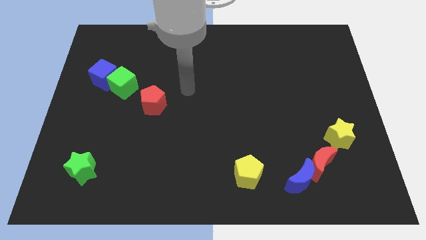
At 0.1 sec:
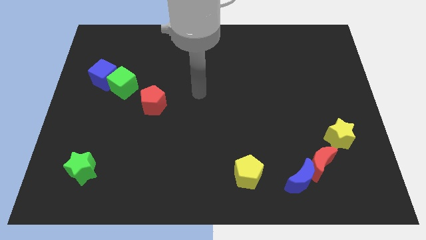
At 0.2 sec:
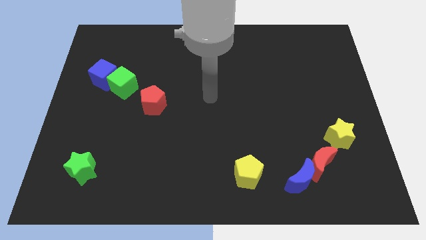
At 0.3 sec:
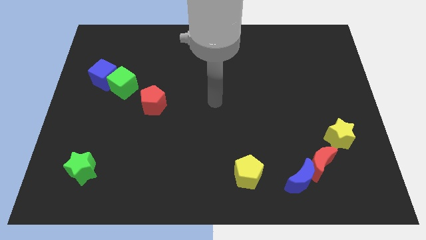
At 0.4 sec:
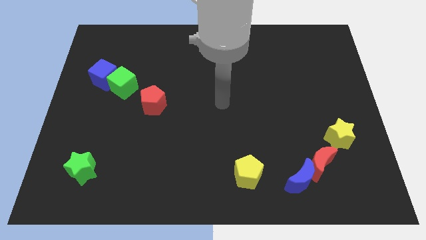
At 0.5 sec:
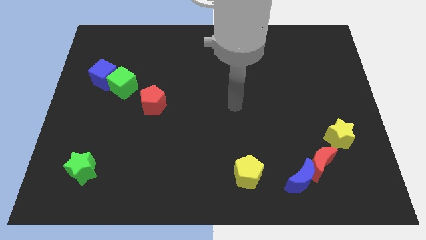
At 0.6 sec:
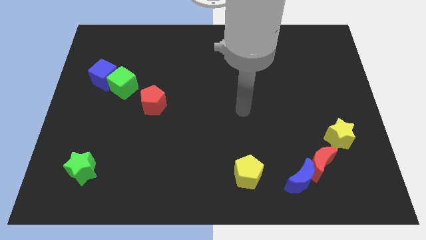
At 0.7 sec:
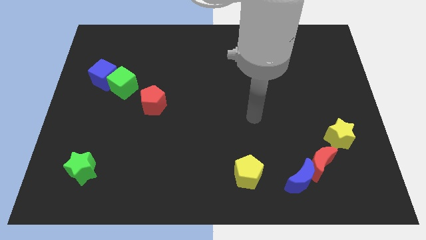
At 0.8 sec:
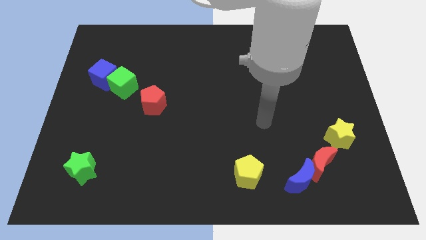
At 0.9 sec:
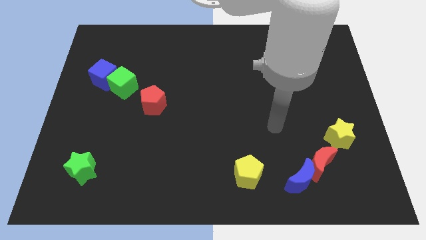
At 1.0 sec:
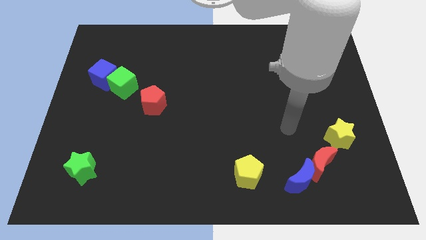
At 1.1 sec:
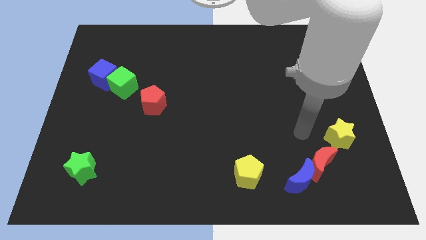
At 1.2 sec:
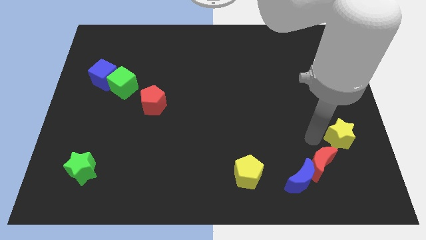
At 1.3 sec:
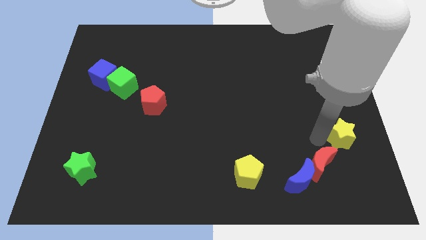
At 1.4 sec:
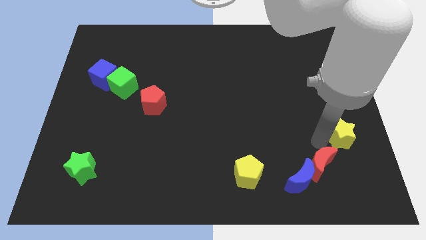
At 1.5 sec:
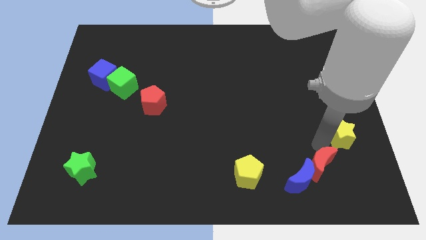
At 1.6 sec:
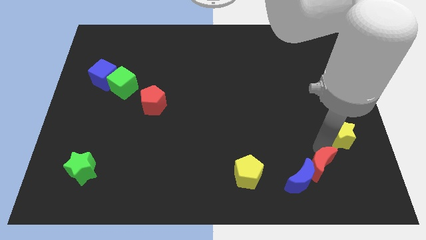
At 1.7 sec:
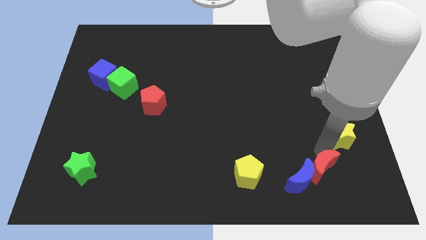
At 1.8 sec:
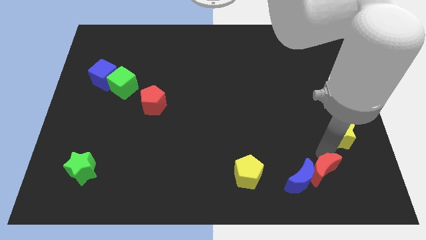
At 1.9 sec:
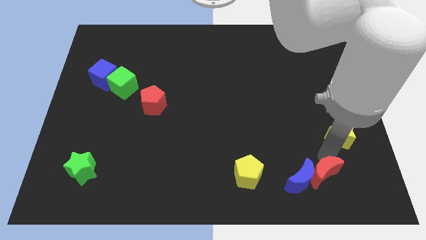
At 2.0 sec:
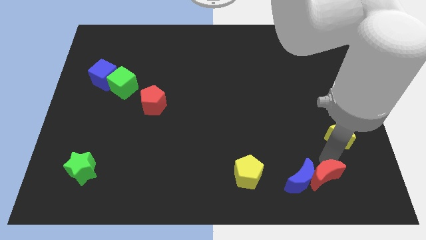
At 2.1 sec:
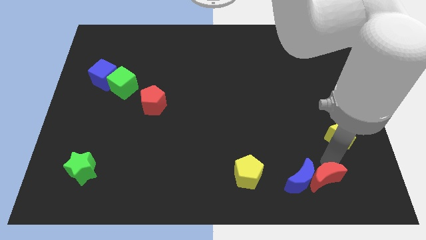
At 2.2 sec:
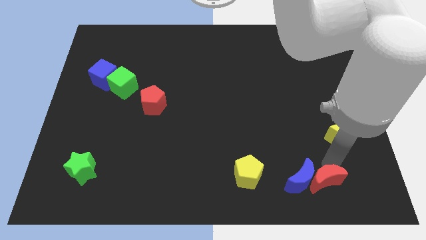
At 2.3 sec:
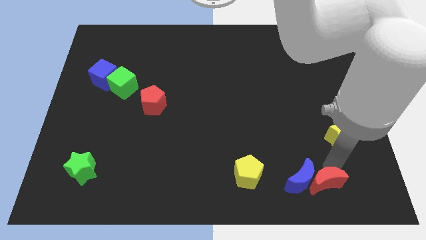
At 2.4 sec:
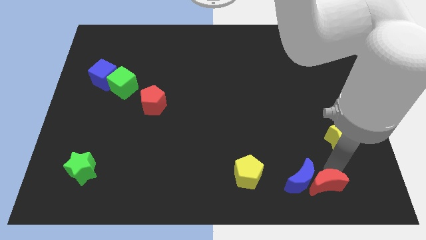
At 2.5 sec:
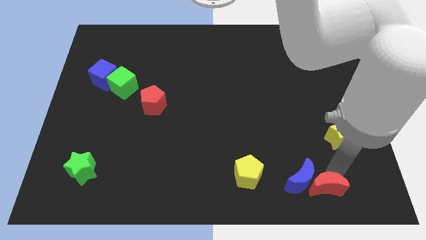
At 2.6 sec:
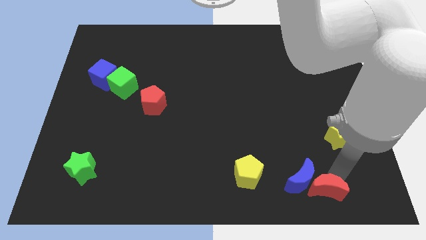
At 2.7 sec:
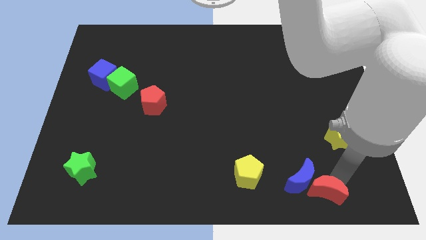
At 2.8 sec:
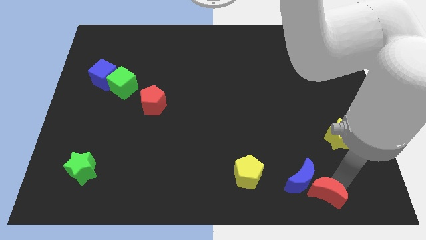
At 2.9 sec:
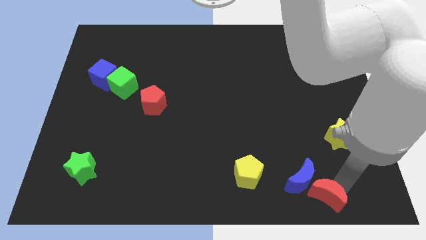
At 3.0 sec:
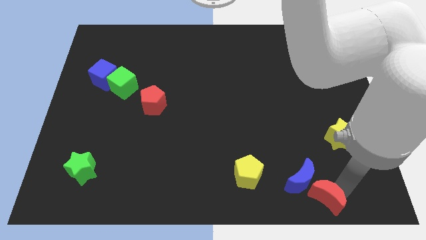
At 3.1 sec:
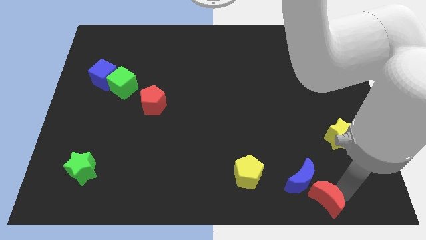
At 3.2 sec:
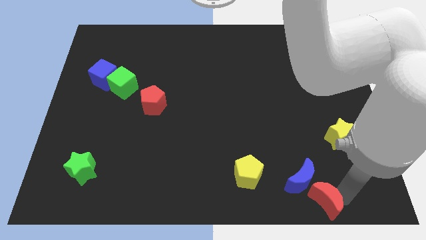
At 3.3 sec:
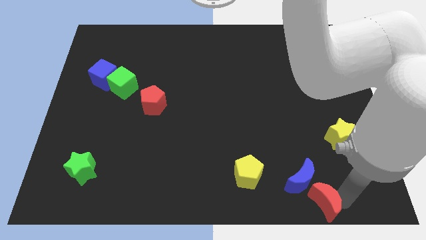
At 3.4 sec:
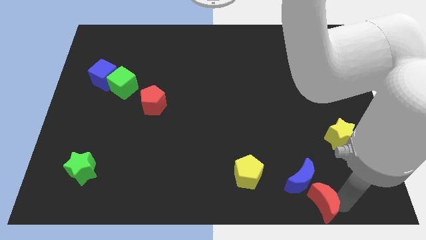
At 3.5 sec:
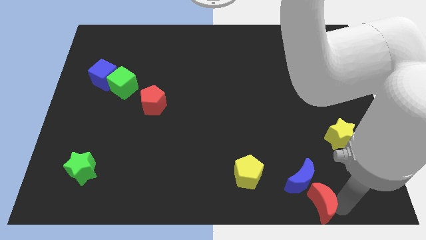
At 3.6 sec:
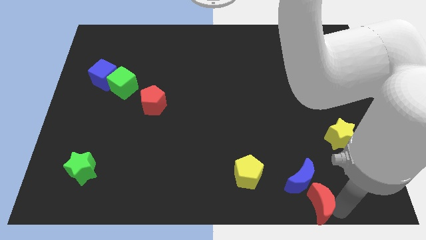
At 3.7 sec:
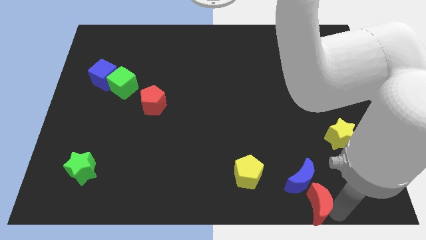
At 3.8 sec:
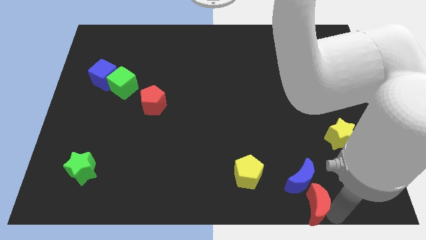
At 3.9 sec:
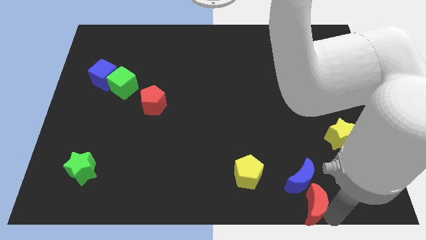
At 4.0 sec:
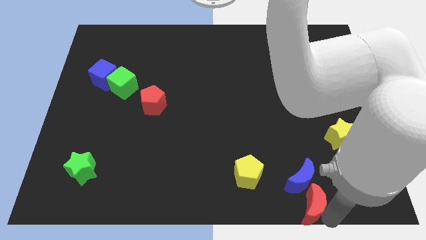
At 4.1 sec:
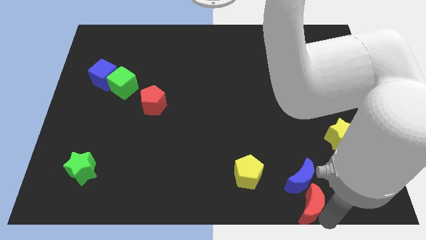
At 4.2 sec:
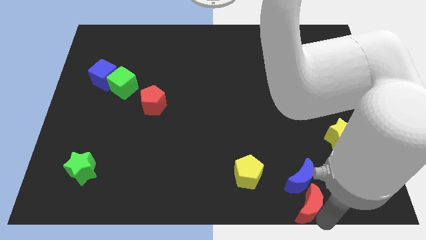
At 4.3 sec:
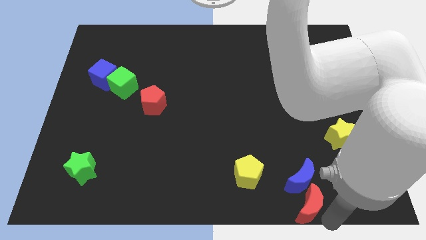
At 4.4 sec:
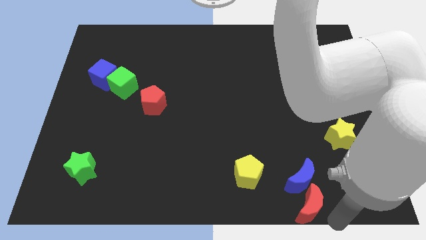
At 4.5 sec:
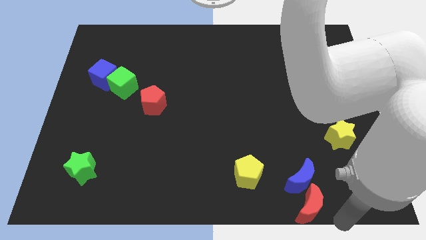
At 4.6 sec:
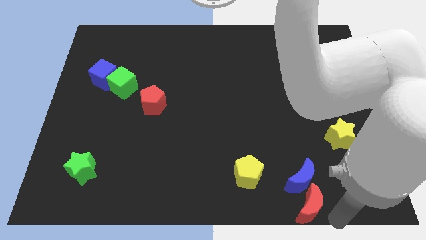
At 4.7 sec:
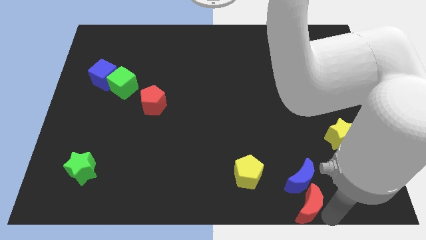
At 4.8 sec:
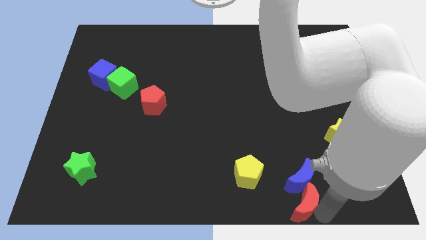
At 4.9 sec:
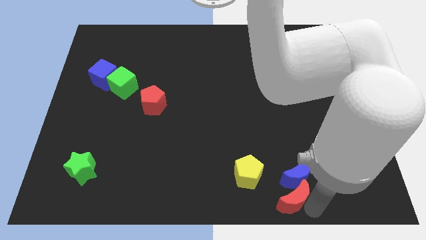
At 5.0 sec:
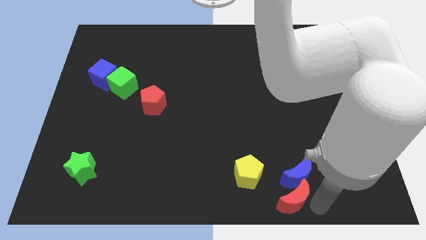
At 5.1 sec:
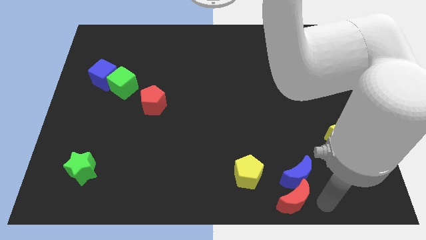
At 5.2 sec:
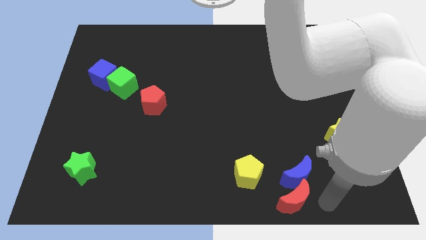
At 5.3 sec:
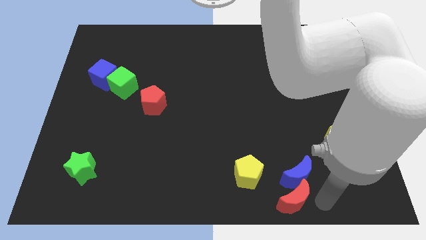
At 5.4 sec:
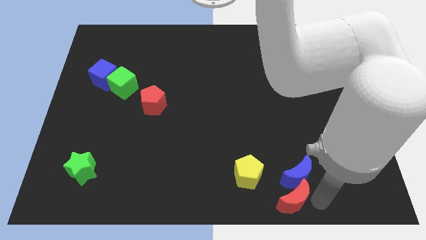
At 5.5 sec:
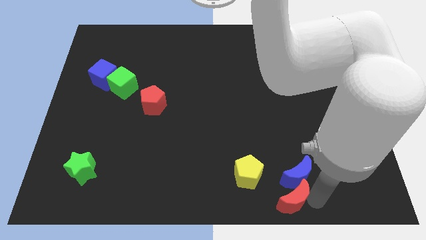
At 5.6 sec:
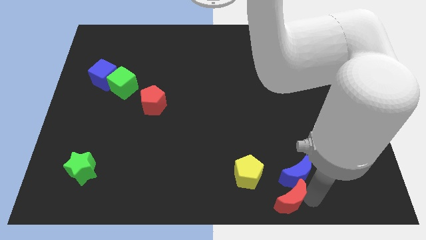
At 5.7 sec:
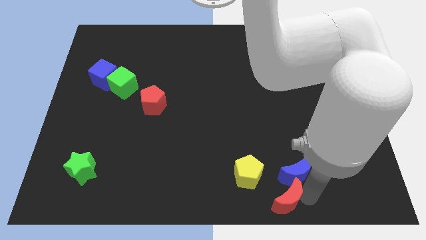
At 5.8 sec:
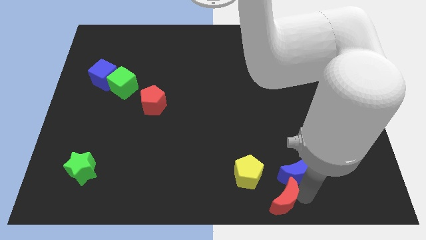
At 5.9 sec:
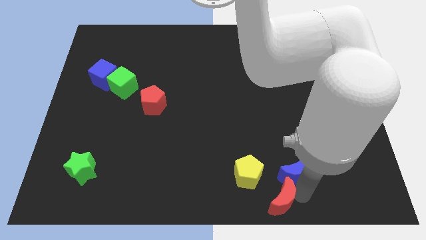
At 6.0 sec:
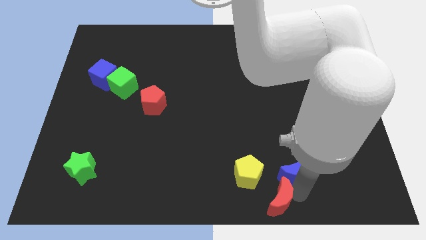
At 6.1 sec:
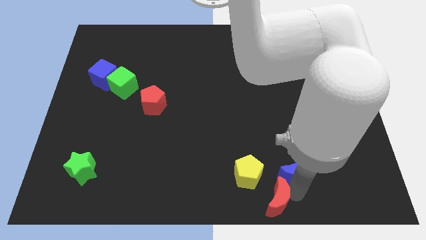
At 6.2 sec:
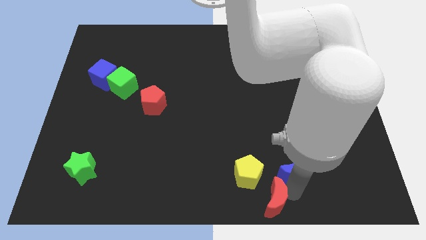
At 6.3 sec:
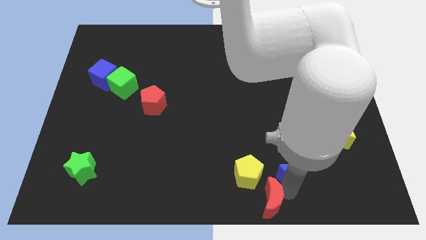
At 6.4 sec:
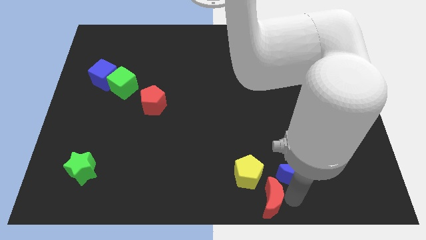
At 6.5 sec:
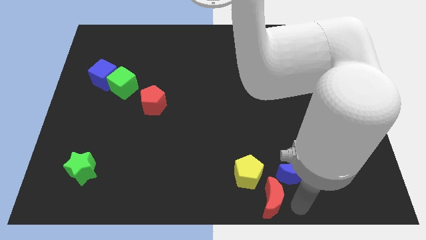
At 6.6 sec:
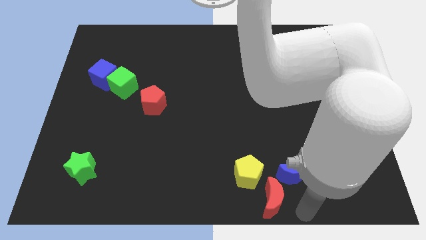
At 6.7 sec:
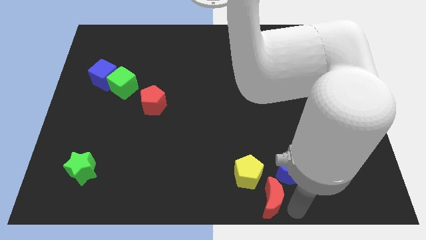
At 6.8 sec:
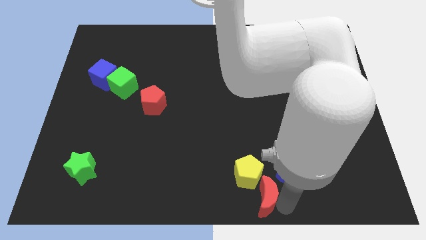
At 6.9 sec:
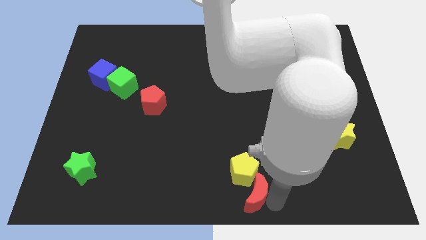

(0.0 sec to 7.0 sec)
slide the red moon to the left side of the blue moon
